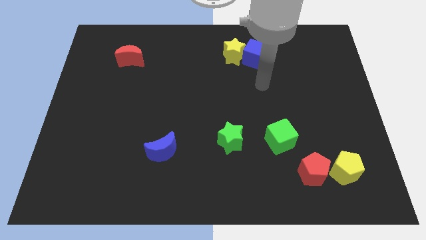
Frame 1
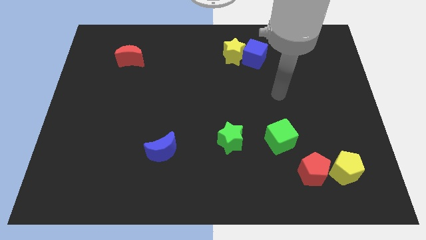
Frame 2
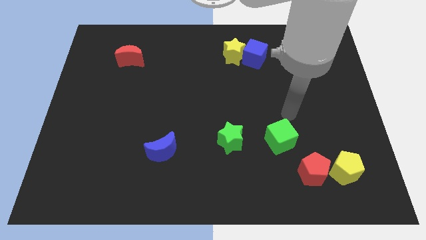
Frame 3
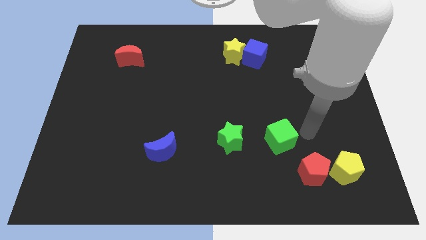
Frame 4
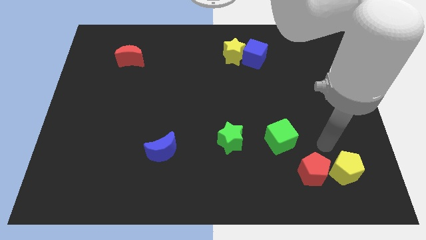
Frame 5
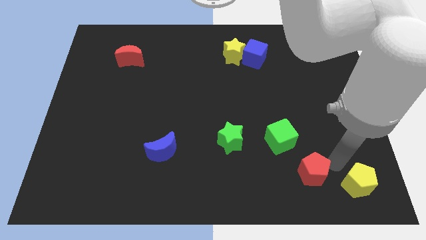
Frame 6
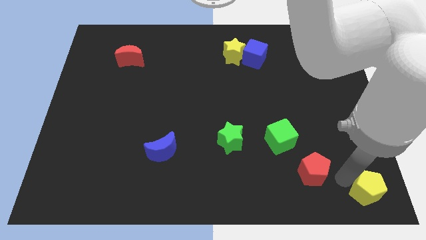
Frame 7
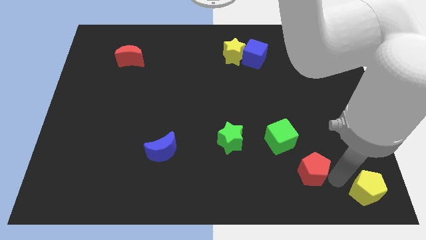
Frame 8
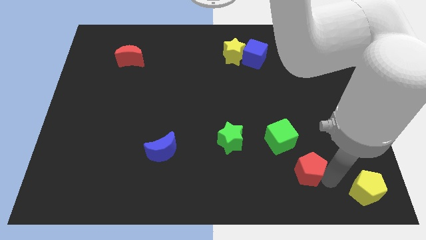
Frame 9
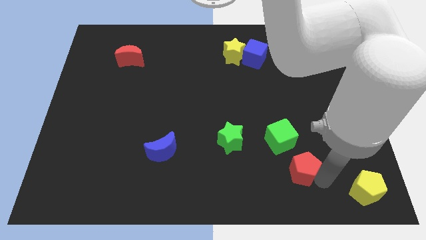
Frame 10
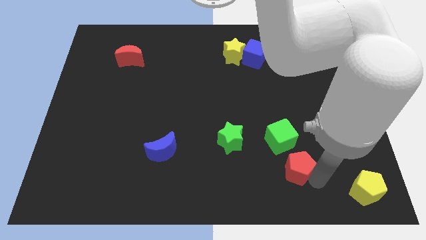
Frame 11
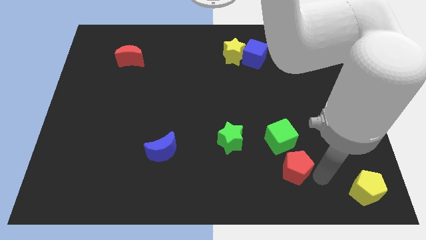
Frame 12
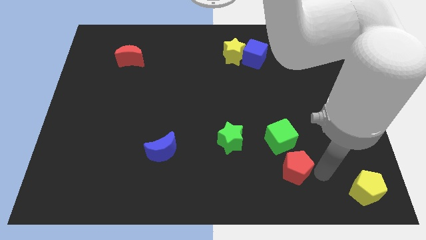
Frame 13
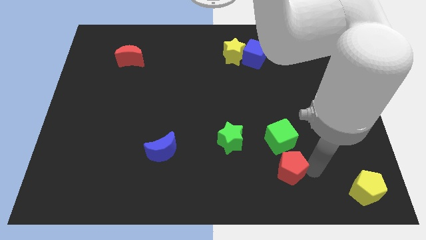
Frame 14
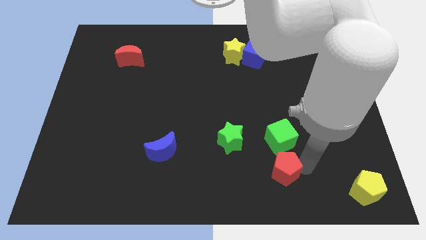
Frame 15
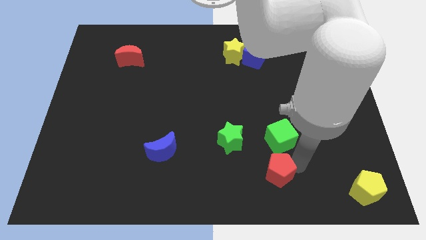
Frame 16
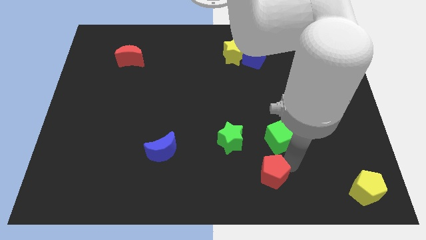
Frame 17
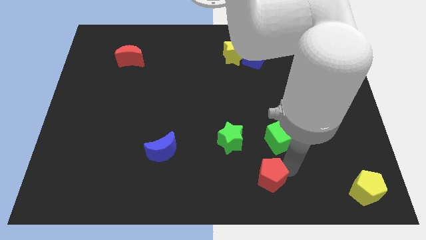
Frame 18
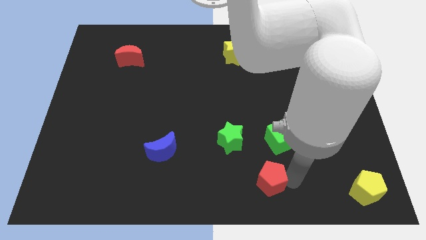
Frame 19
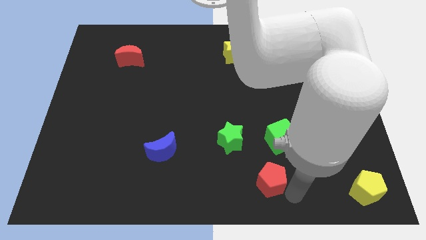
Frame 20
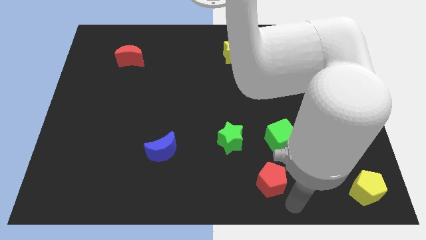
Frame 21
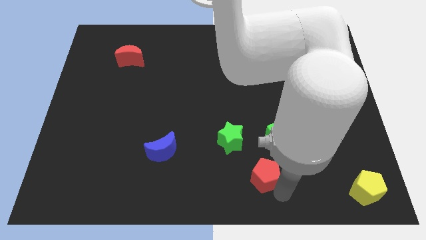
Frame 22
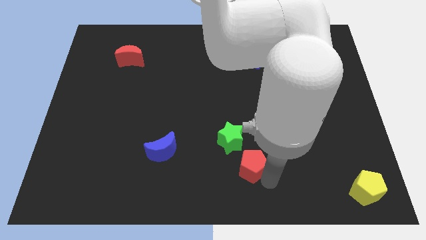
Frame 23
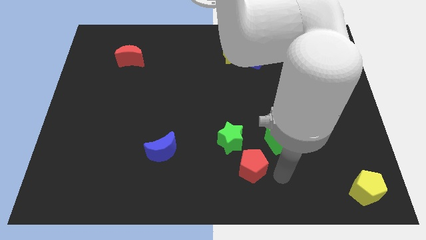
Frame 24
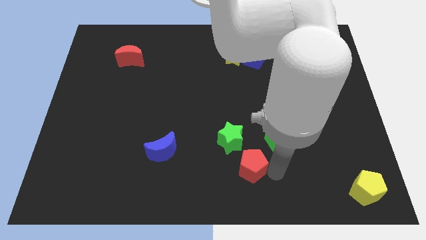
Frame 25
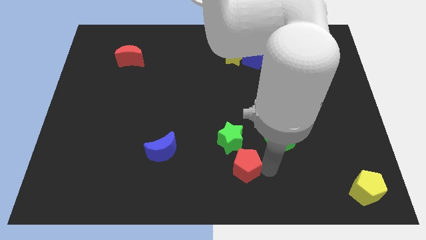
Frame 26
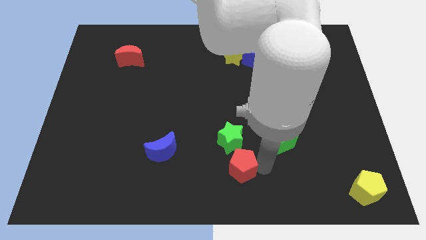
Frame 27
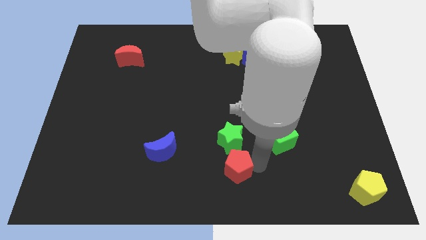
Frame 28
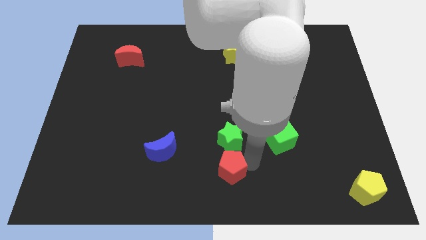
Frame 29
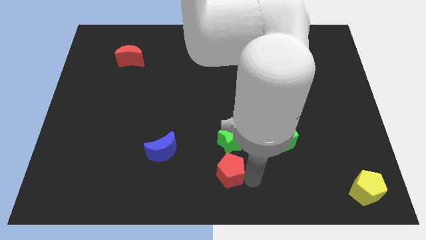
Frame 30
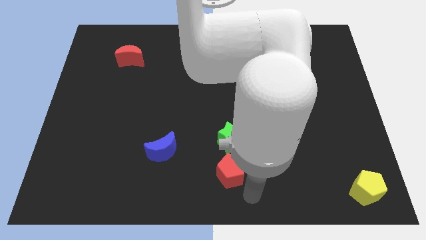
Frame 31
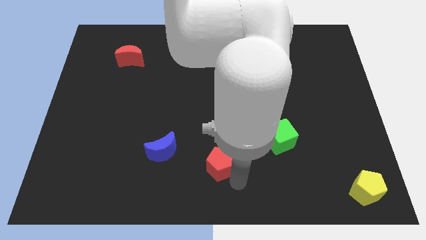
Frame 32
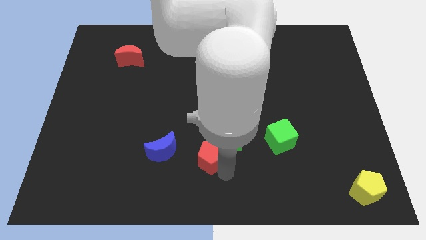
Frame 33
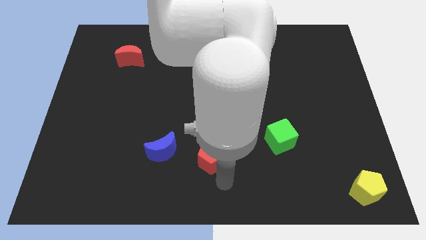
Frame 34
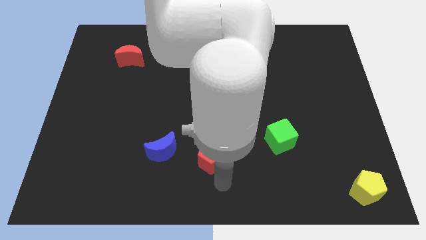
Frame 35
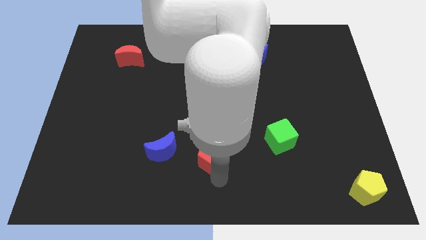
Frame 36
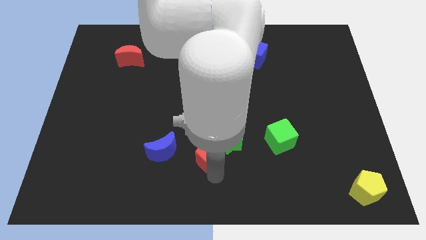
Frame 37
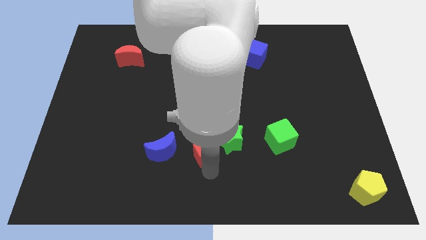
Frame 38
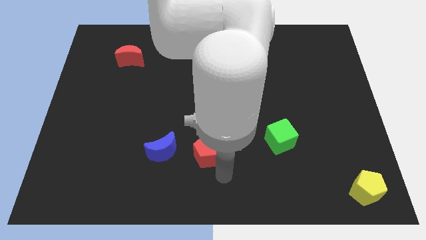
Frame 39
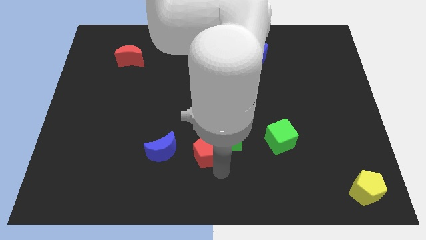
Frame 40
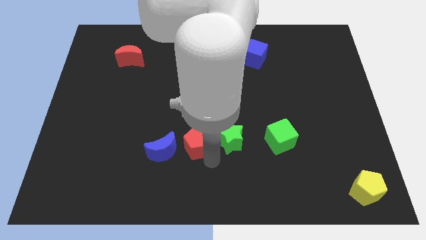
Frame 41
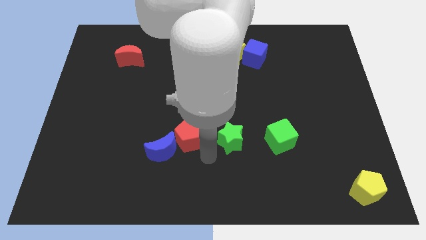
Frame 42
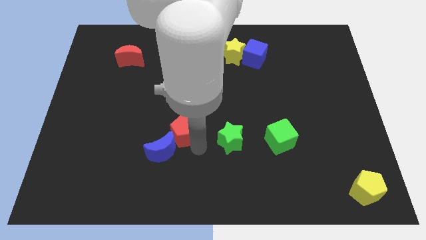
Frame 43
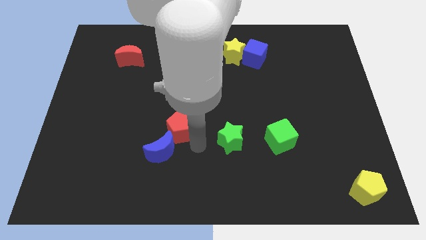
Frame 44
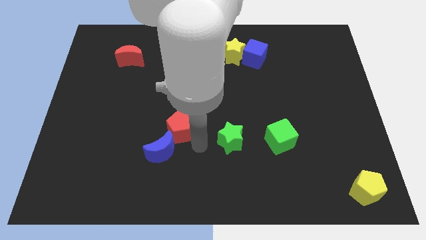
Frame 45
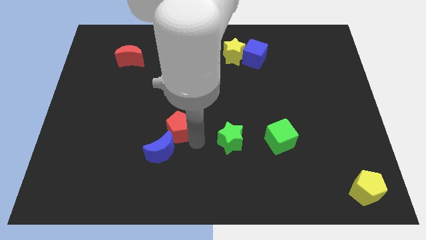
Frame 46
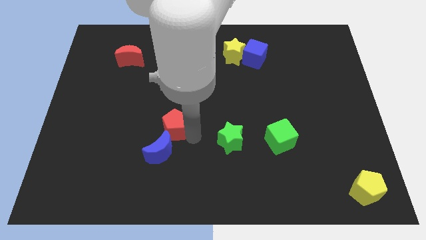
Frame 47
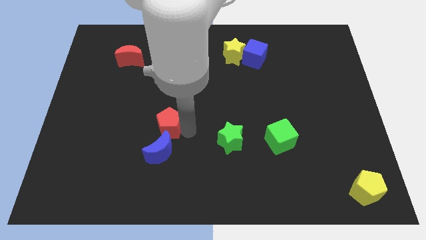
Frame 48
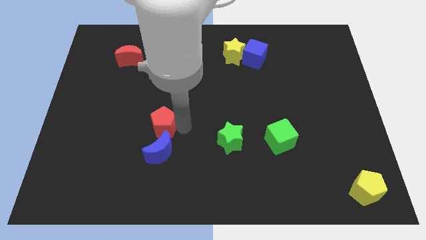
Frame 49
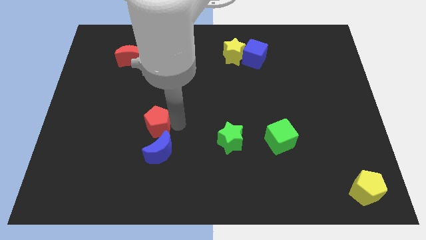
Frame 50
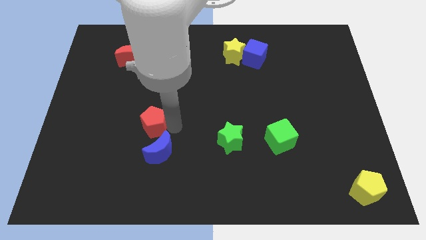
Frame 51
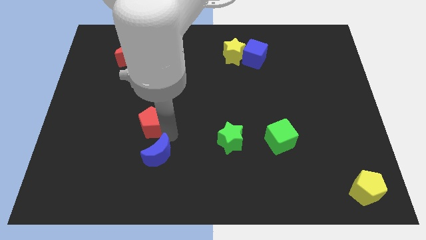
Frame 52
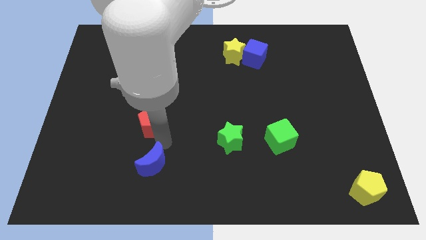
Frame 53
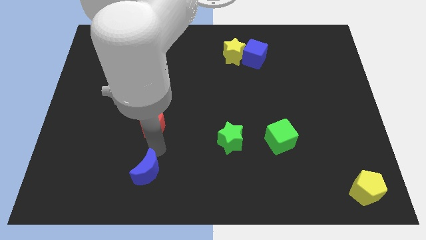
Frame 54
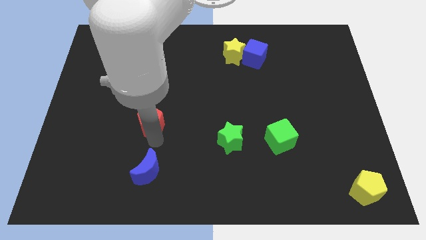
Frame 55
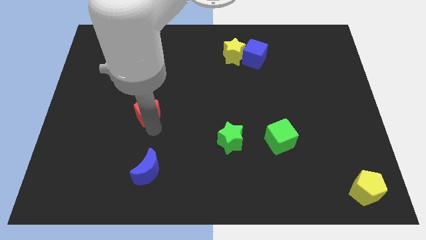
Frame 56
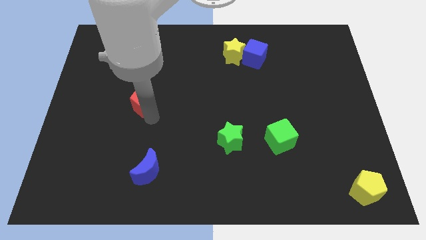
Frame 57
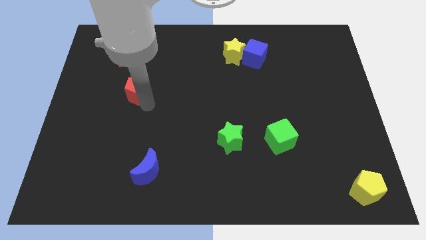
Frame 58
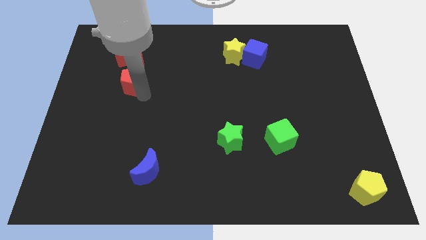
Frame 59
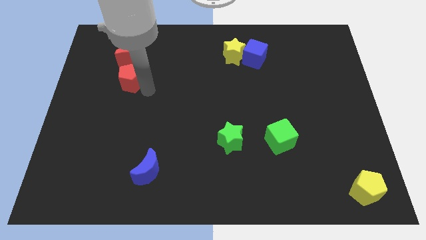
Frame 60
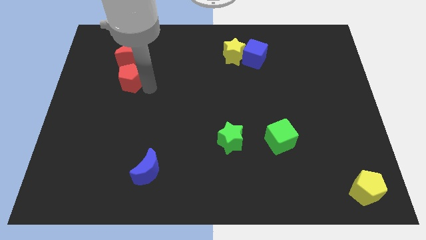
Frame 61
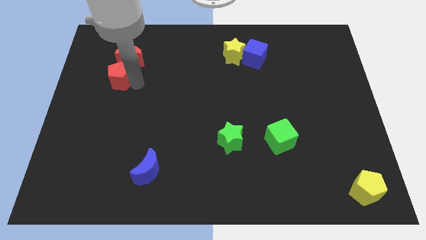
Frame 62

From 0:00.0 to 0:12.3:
slide the red pentagon to the bottom left side of the red moon

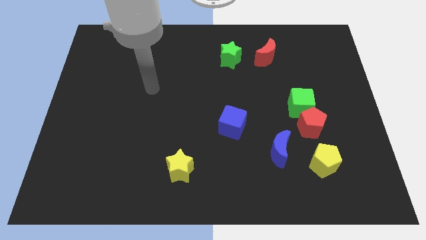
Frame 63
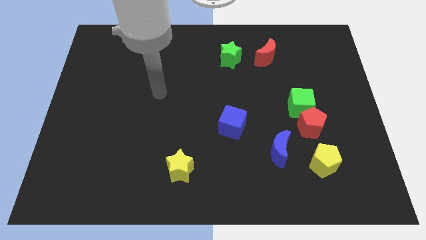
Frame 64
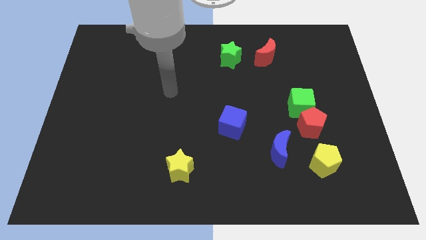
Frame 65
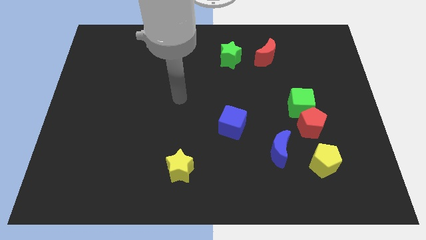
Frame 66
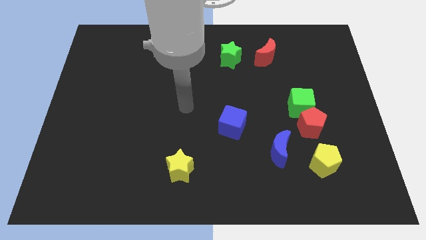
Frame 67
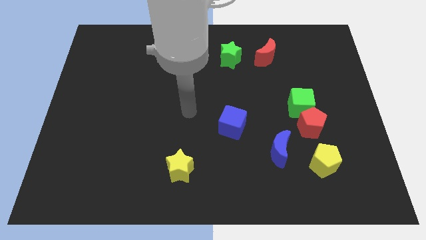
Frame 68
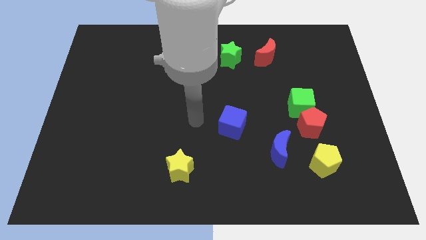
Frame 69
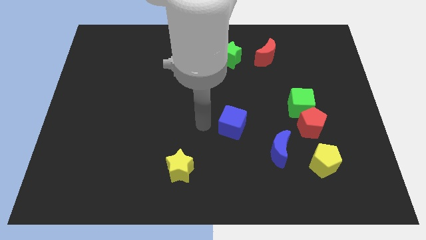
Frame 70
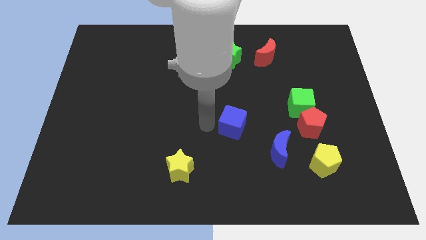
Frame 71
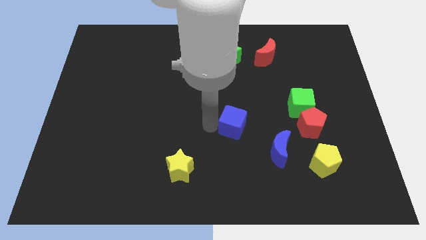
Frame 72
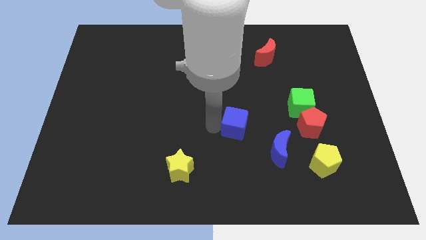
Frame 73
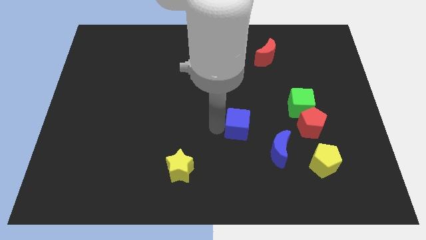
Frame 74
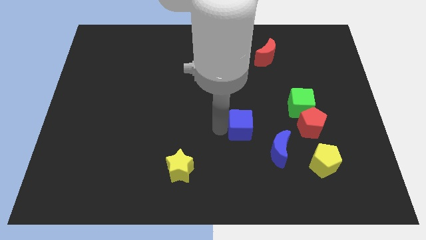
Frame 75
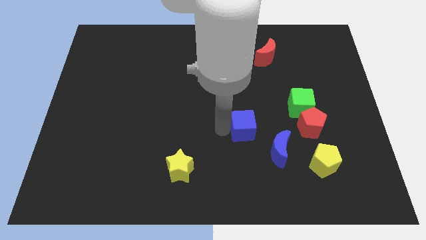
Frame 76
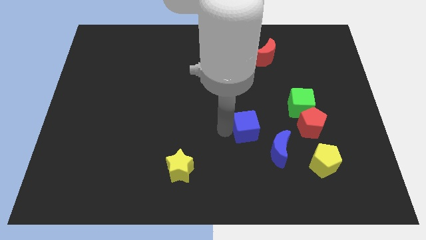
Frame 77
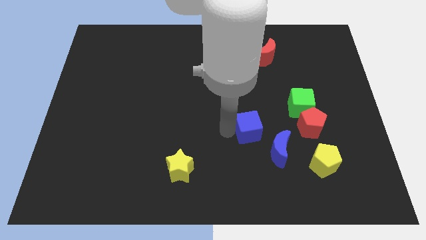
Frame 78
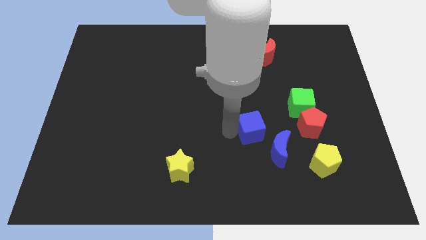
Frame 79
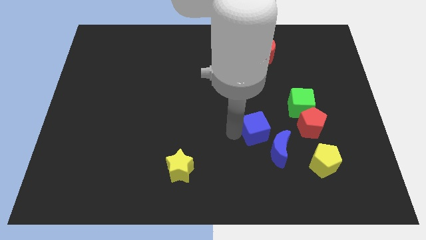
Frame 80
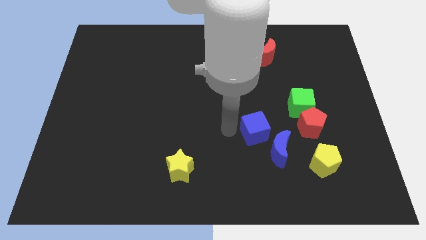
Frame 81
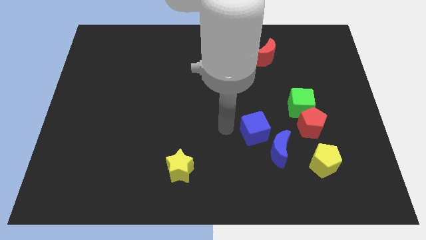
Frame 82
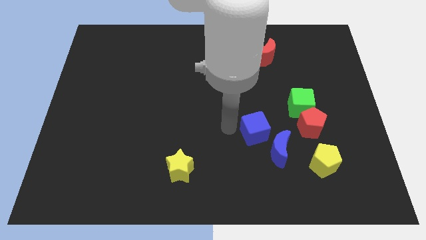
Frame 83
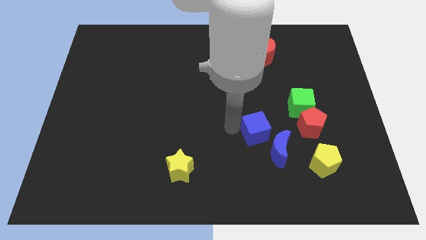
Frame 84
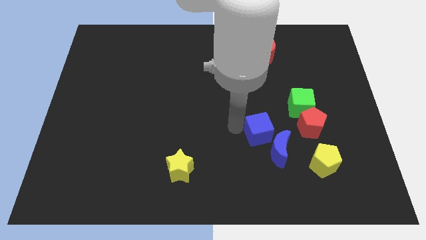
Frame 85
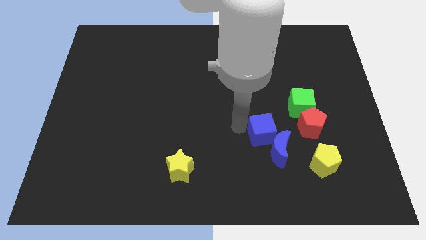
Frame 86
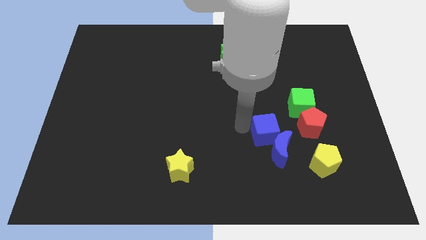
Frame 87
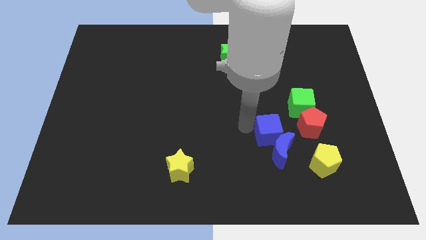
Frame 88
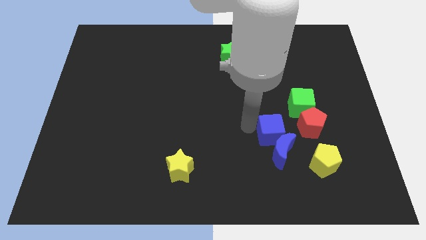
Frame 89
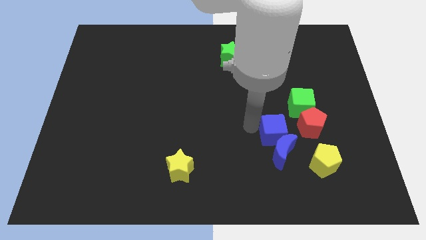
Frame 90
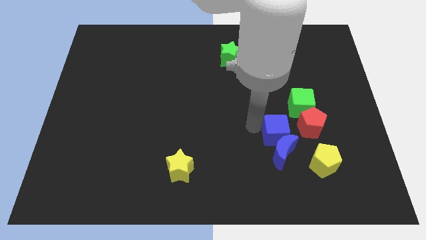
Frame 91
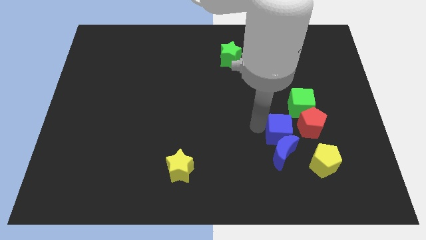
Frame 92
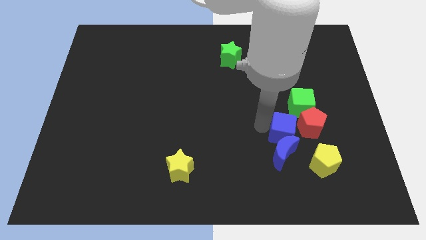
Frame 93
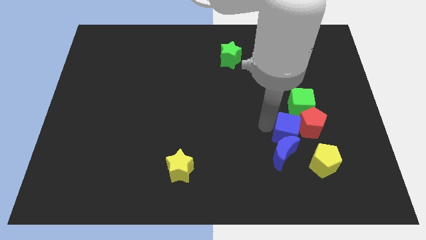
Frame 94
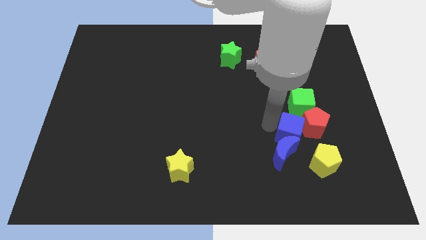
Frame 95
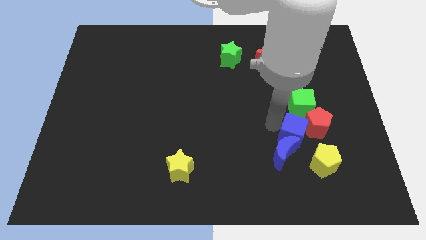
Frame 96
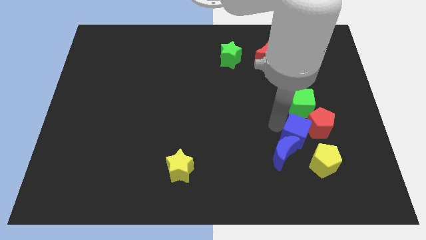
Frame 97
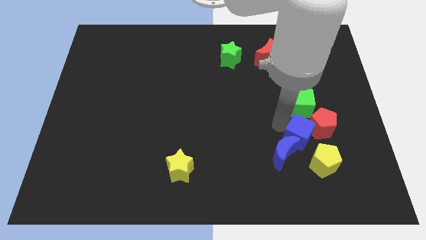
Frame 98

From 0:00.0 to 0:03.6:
slide the blue cube to the right of the blue moon
